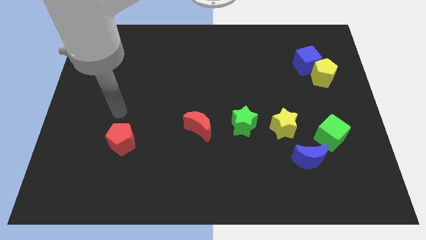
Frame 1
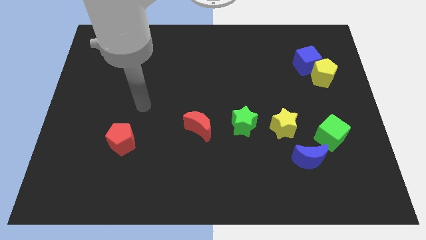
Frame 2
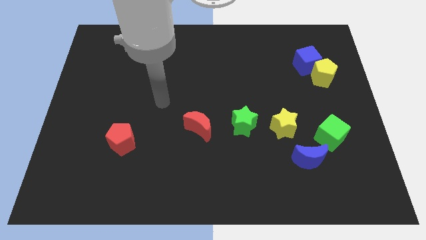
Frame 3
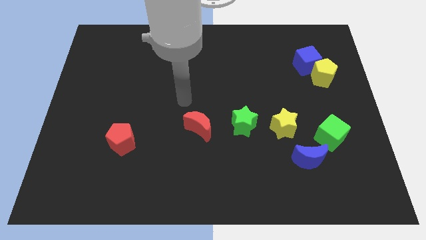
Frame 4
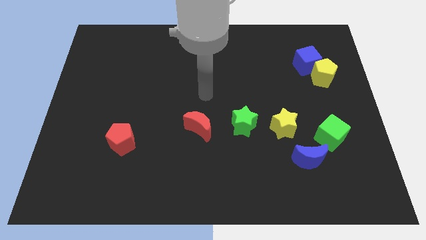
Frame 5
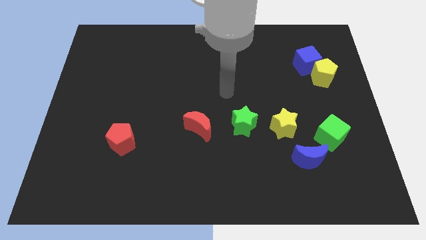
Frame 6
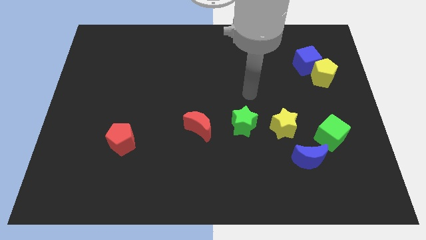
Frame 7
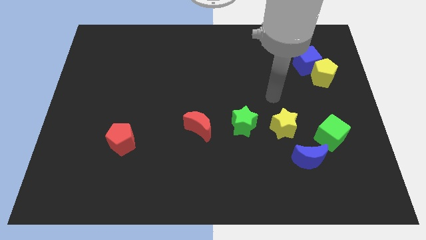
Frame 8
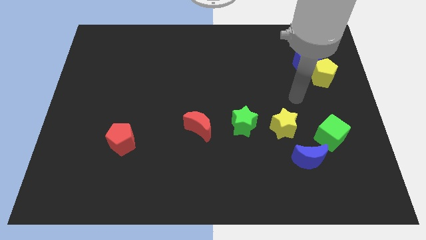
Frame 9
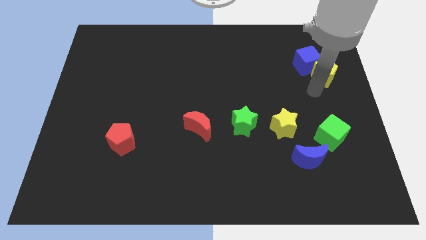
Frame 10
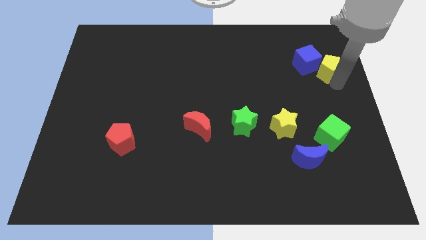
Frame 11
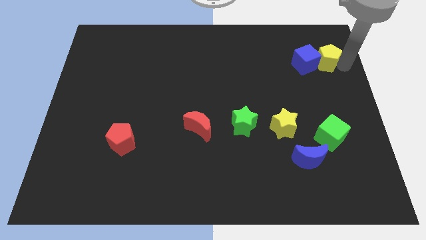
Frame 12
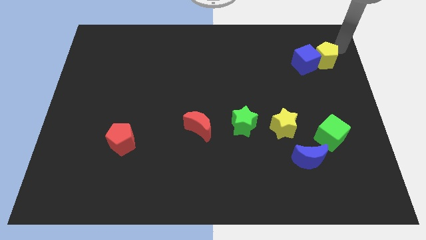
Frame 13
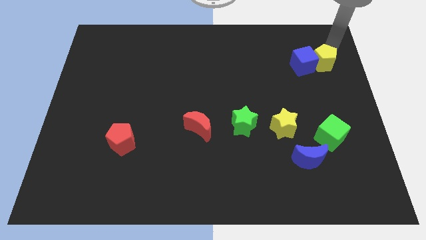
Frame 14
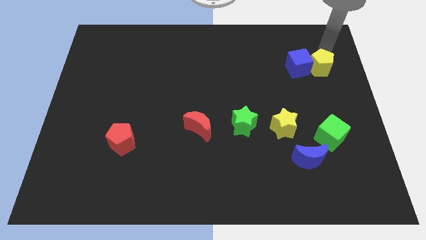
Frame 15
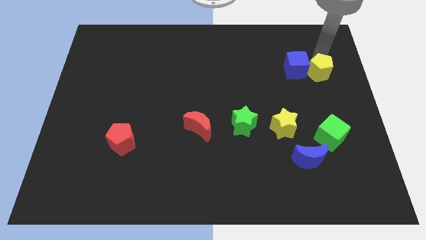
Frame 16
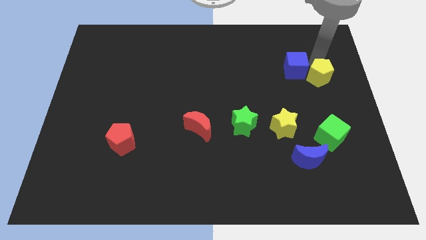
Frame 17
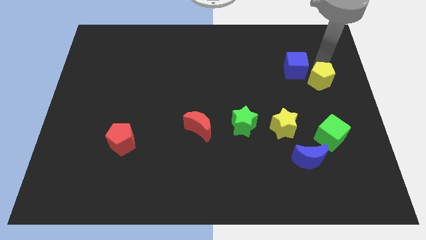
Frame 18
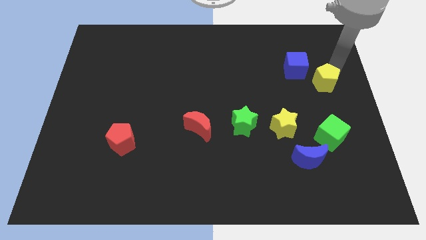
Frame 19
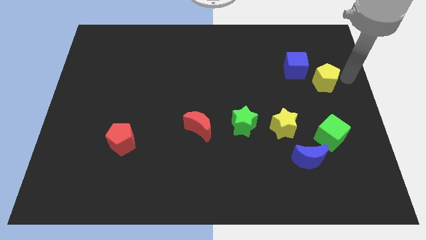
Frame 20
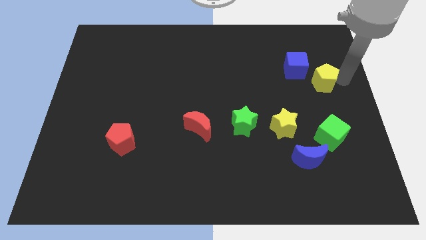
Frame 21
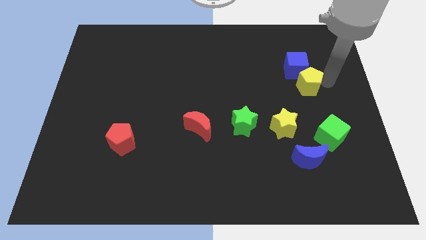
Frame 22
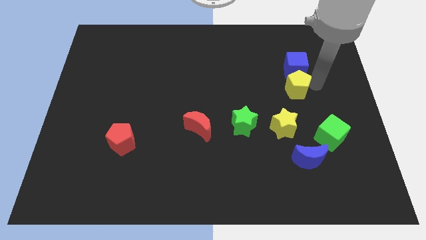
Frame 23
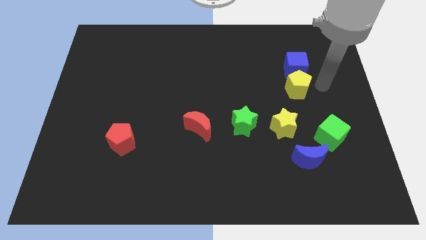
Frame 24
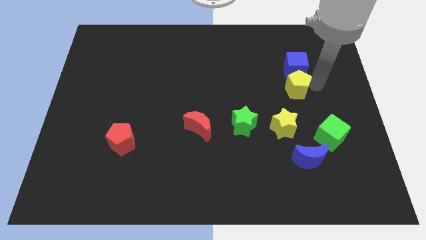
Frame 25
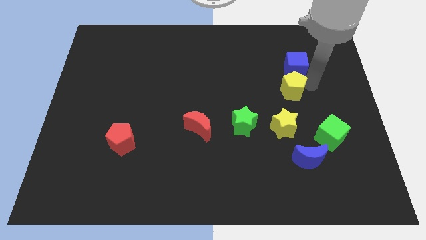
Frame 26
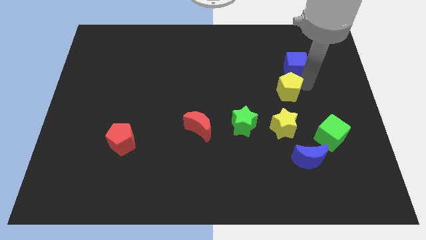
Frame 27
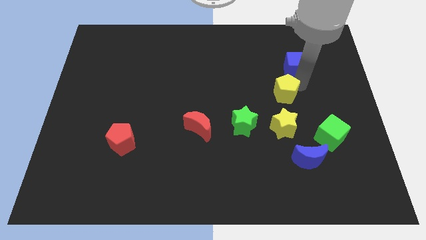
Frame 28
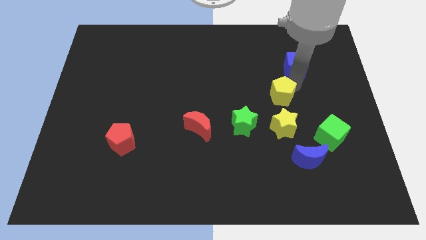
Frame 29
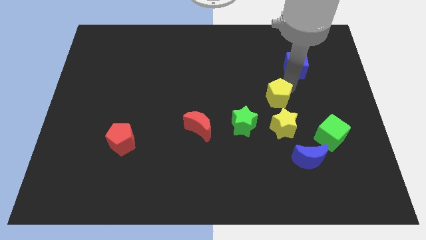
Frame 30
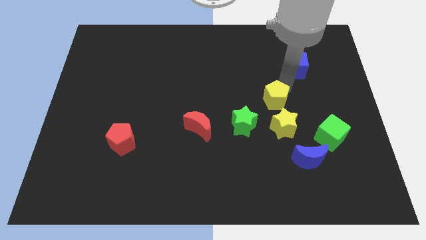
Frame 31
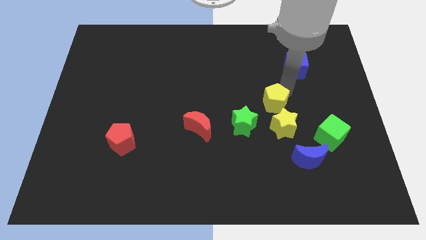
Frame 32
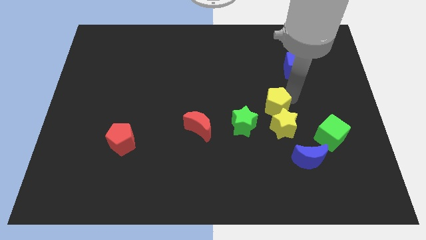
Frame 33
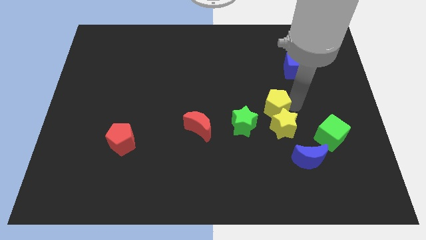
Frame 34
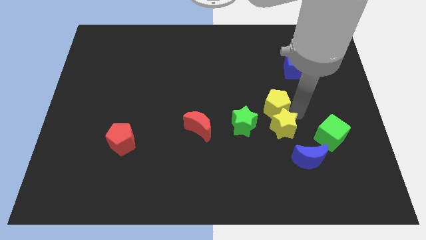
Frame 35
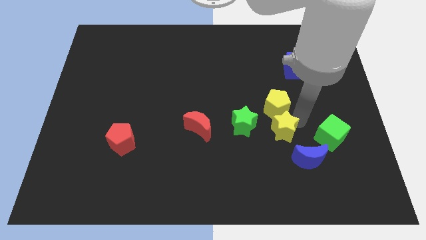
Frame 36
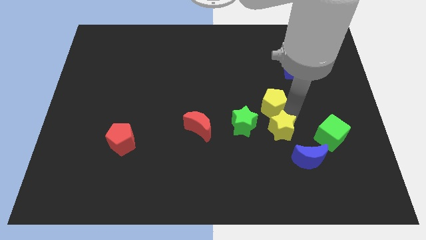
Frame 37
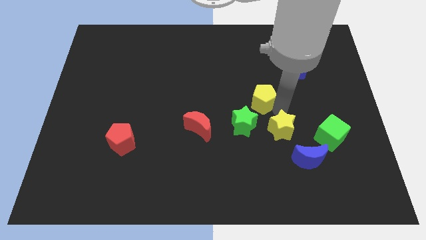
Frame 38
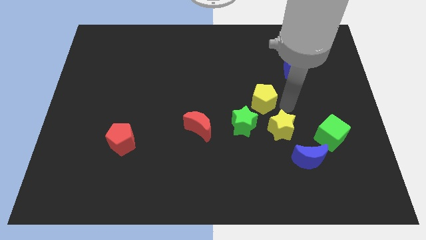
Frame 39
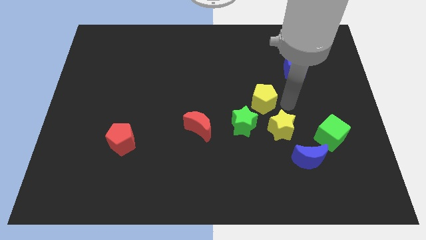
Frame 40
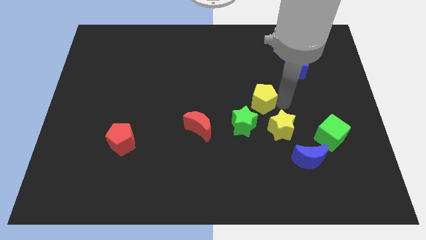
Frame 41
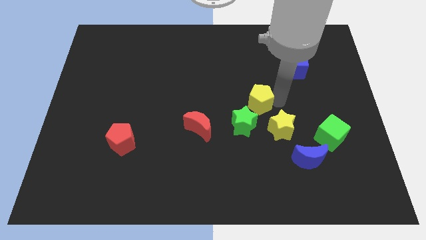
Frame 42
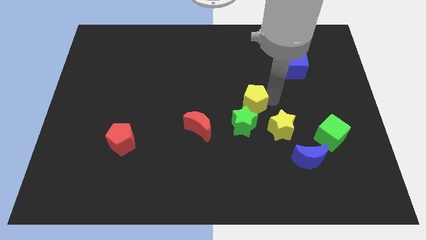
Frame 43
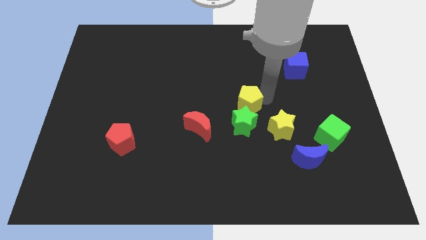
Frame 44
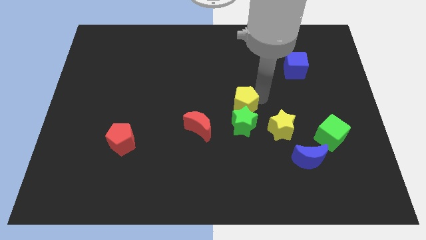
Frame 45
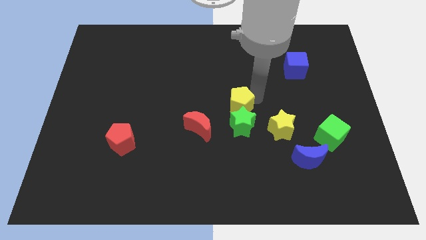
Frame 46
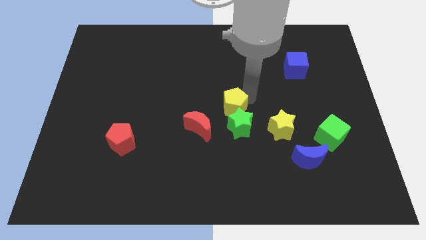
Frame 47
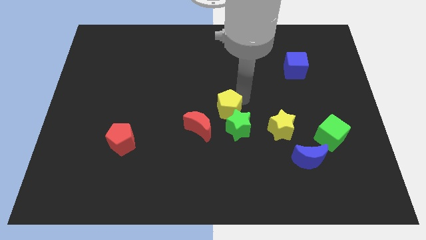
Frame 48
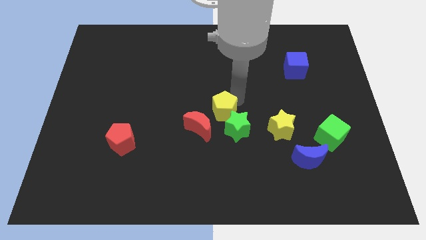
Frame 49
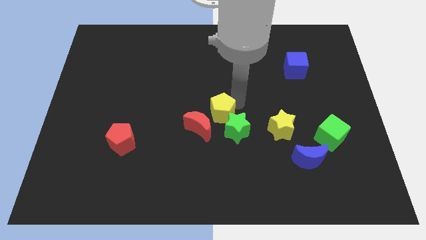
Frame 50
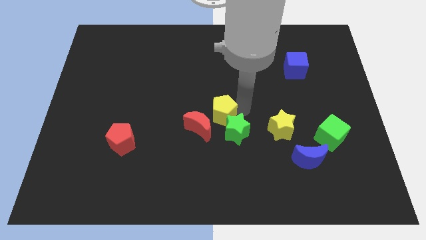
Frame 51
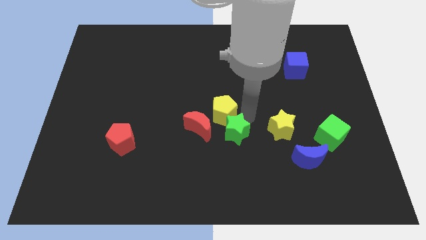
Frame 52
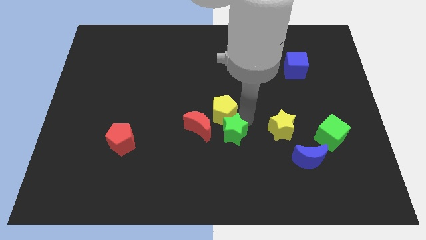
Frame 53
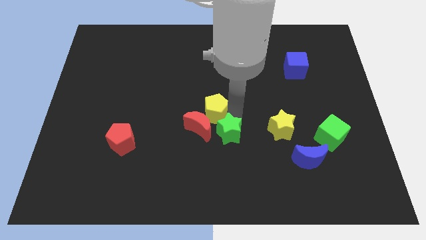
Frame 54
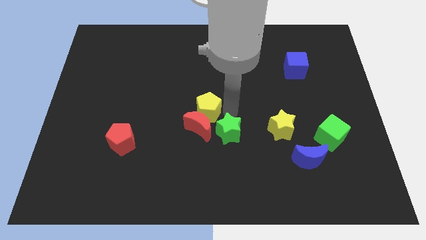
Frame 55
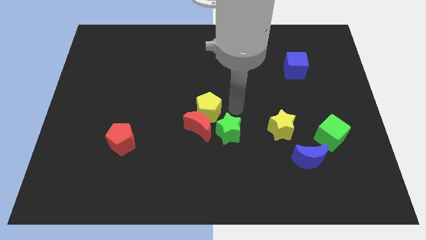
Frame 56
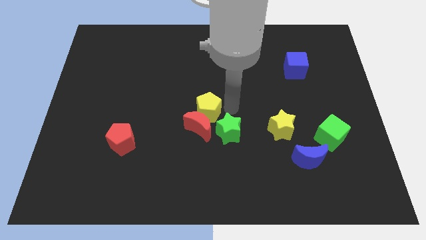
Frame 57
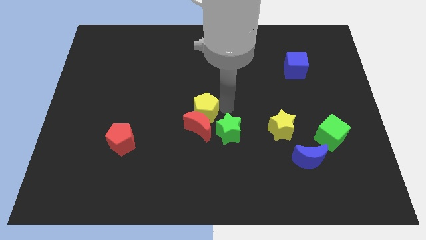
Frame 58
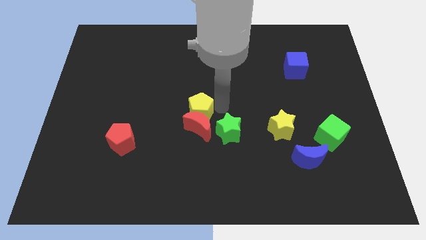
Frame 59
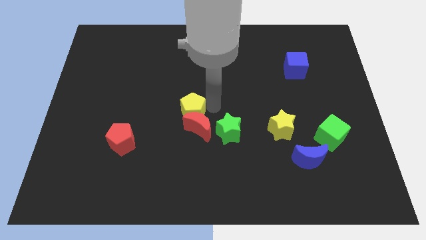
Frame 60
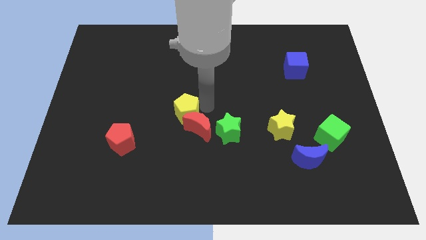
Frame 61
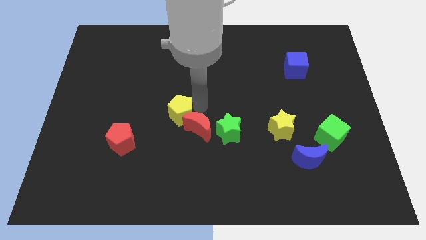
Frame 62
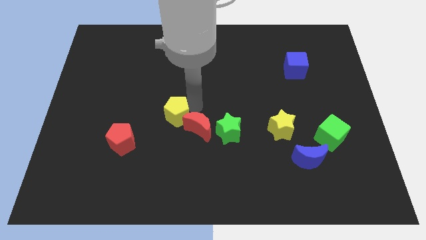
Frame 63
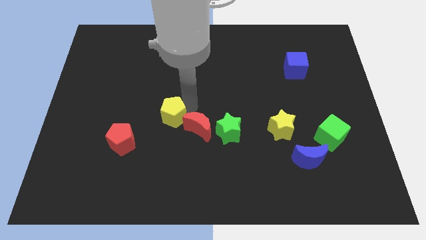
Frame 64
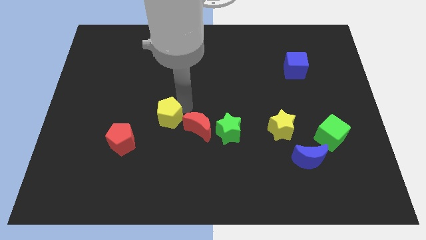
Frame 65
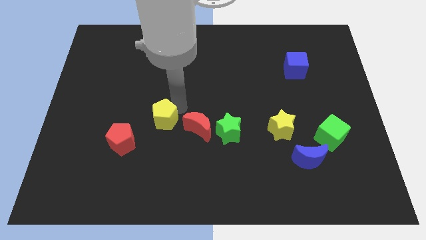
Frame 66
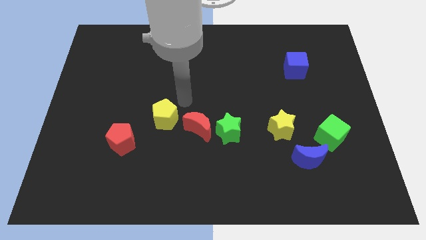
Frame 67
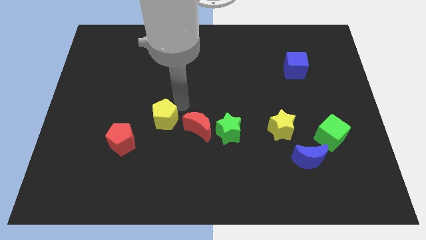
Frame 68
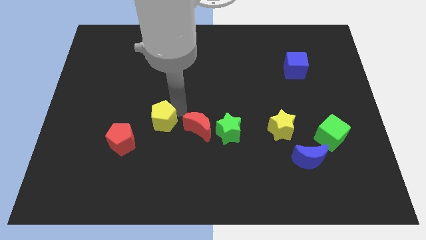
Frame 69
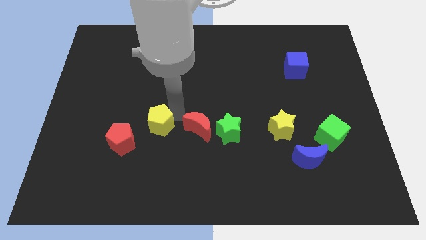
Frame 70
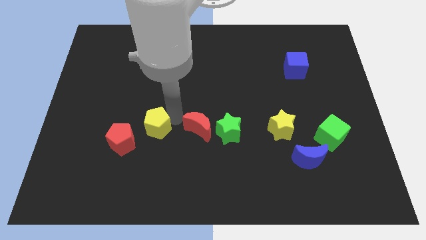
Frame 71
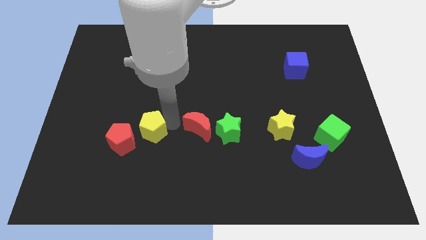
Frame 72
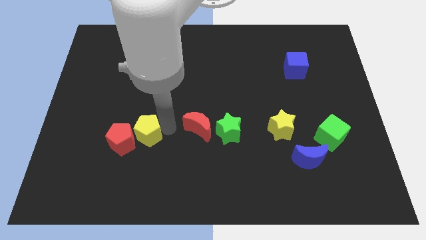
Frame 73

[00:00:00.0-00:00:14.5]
slide the yellow pentagon to the red pentagon

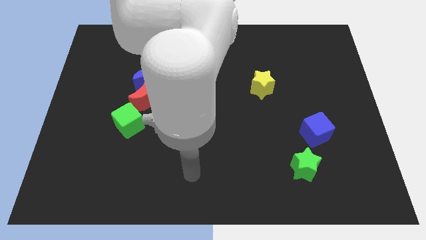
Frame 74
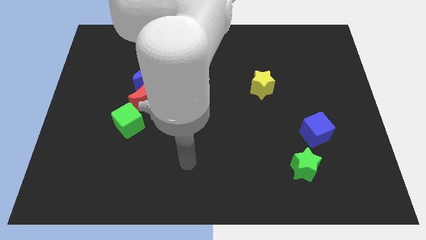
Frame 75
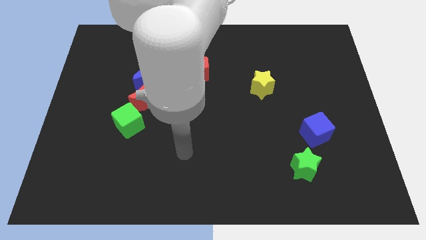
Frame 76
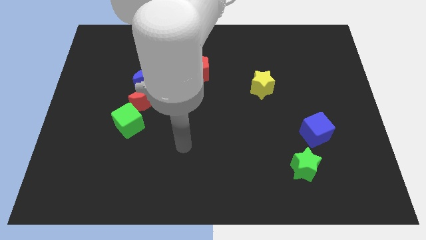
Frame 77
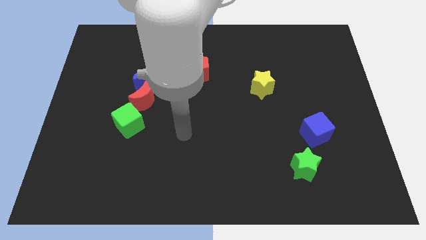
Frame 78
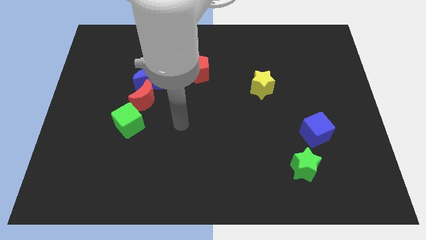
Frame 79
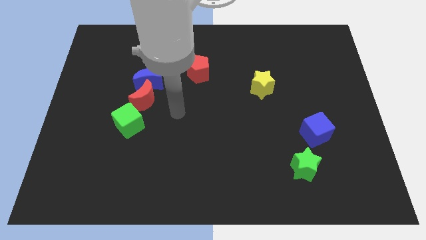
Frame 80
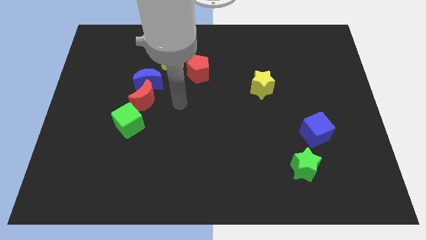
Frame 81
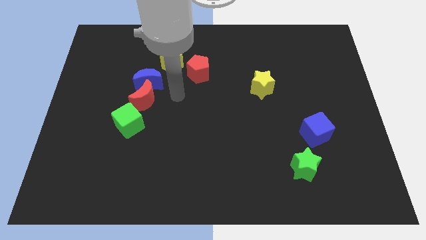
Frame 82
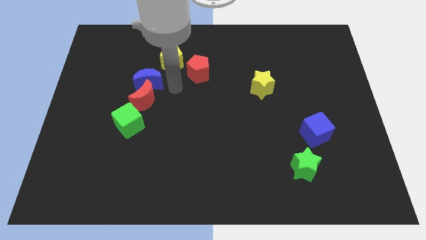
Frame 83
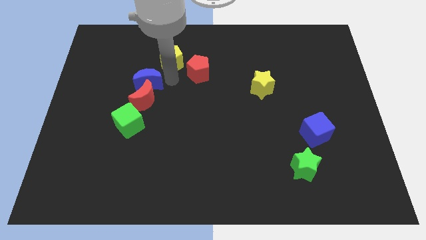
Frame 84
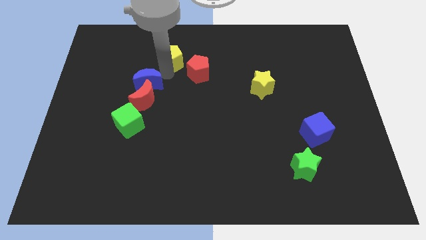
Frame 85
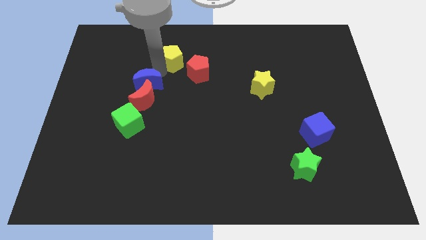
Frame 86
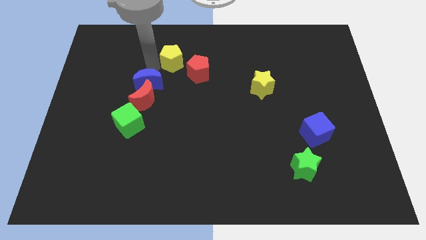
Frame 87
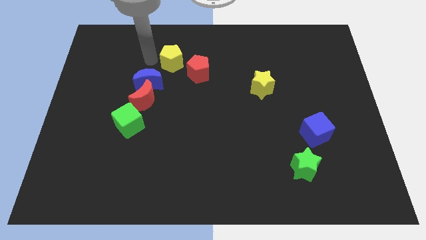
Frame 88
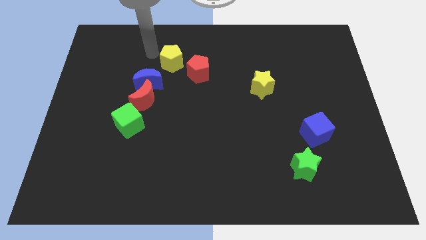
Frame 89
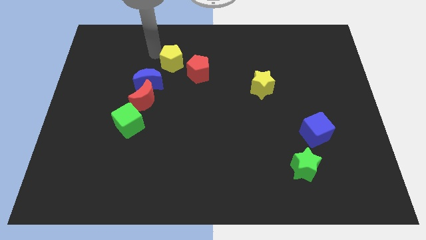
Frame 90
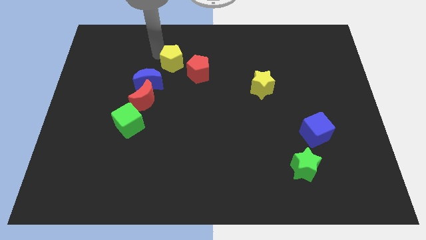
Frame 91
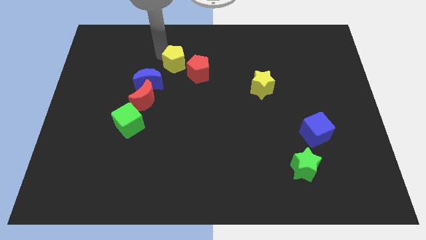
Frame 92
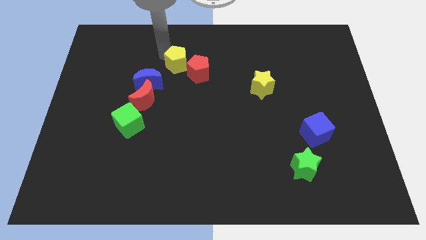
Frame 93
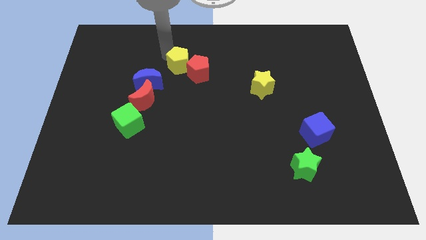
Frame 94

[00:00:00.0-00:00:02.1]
put the yellow pentagon next to the red pentagon
